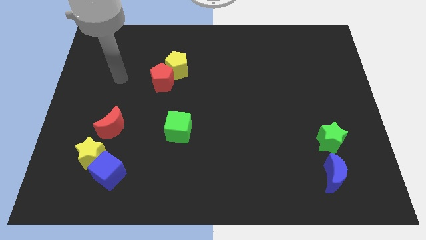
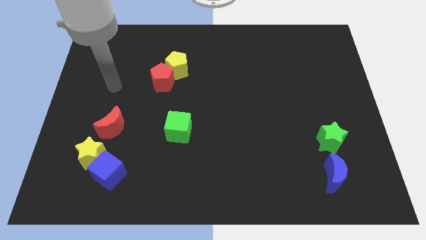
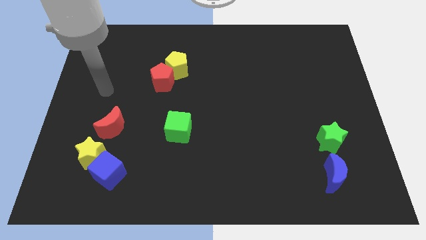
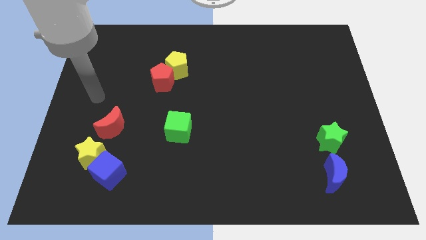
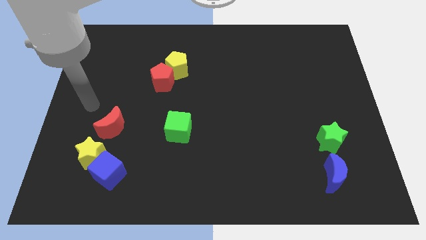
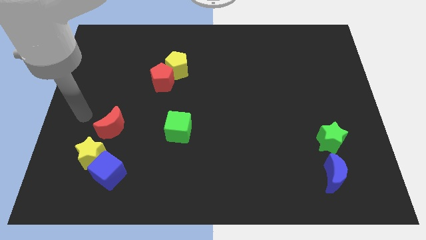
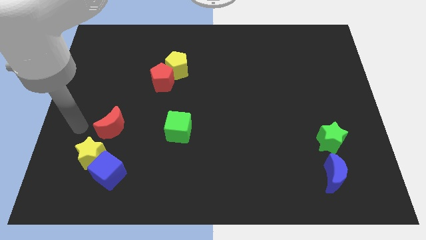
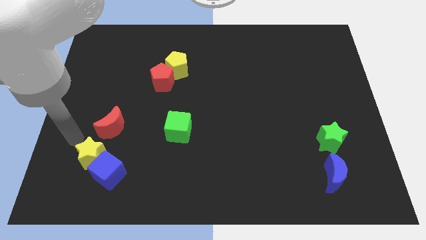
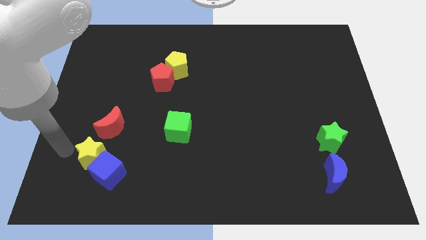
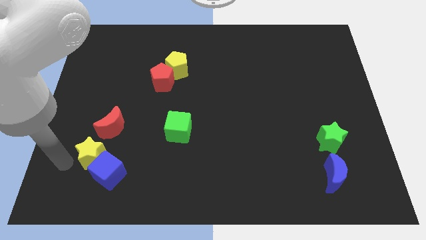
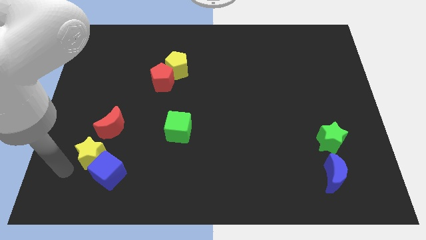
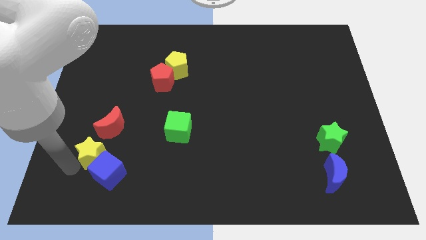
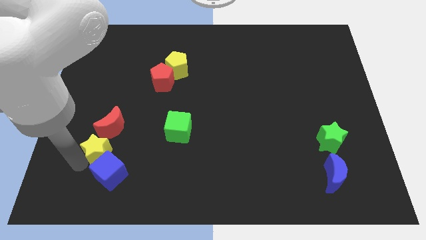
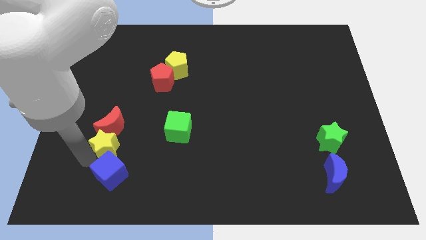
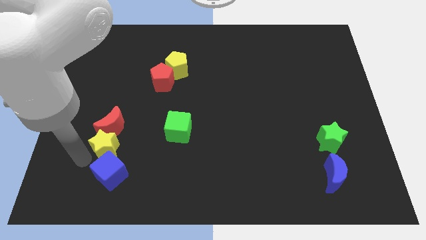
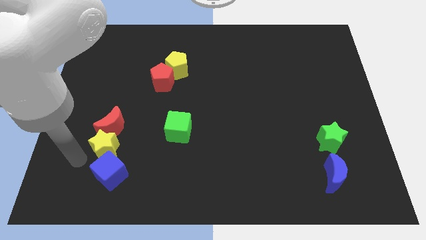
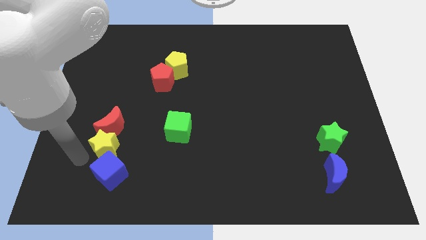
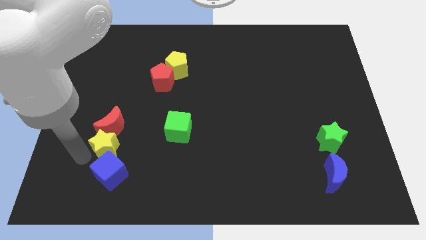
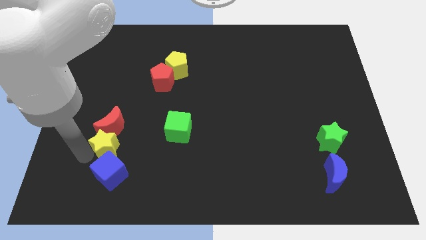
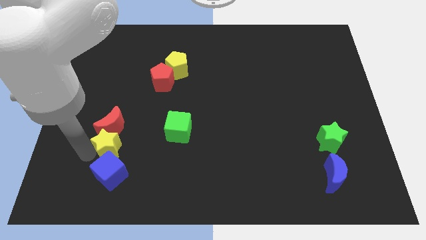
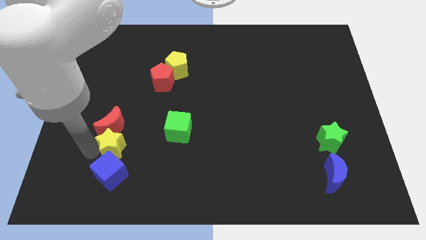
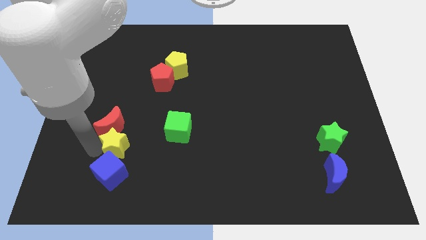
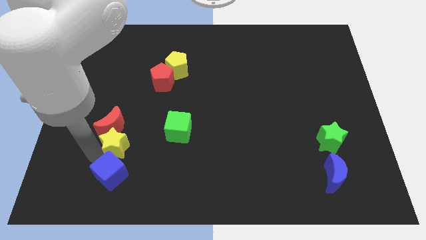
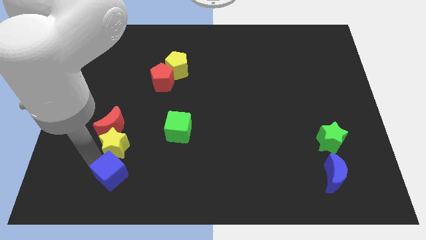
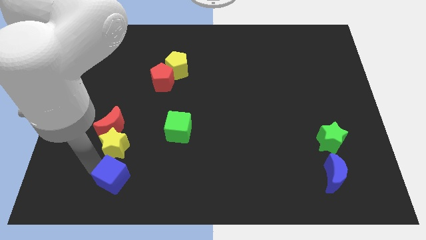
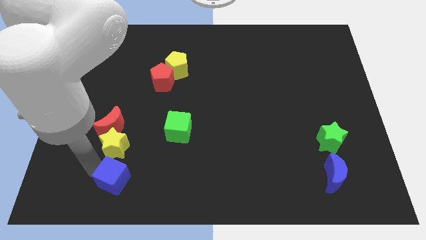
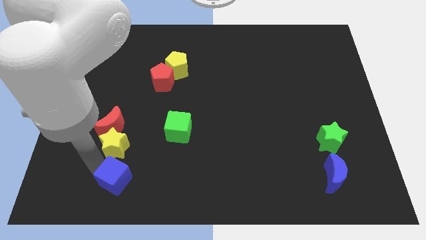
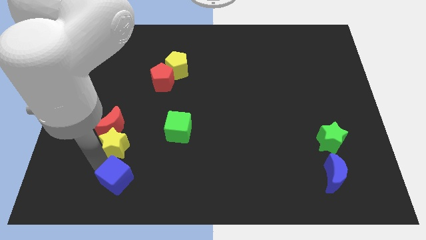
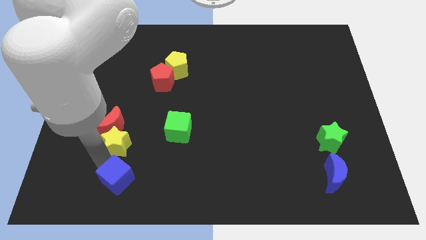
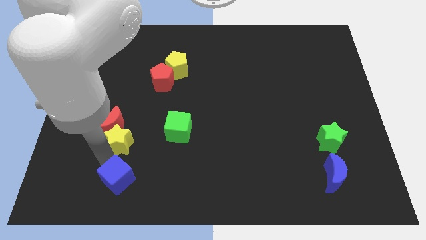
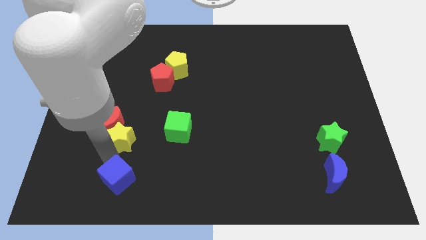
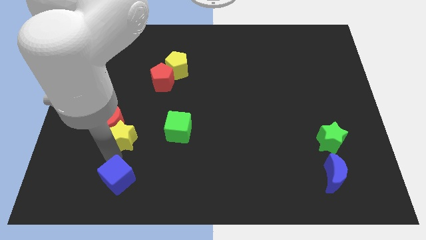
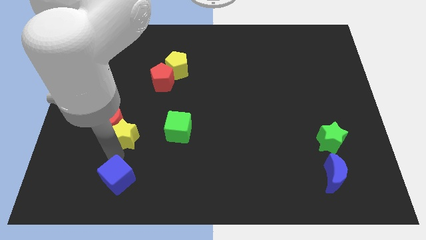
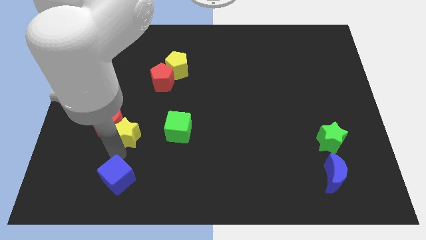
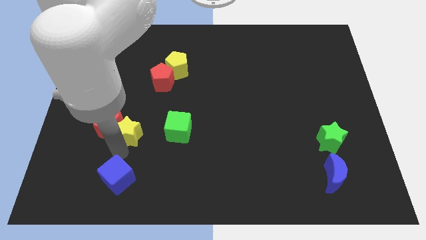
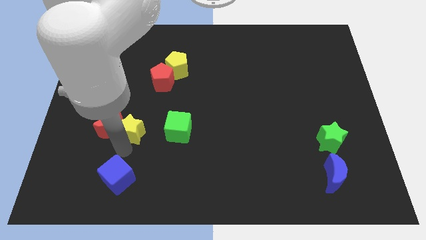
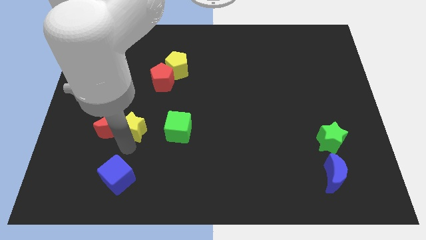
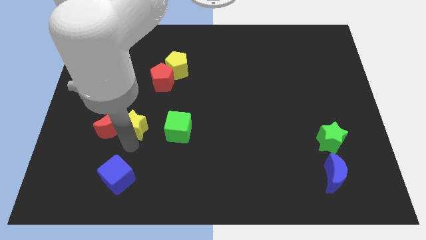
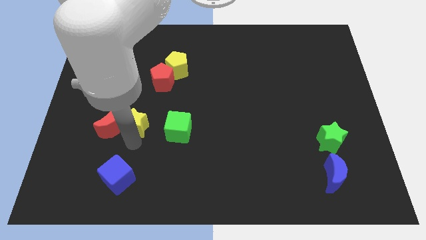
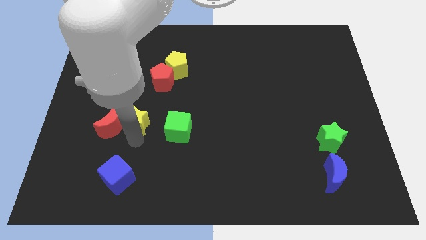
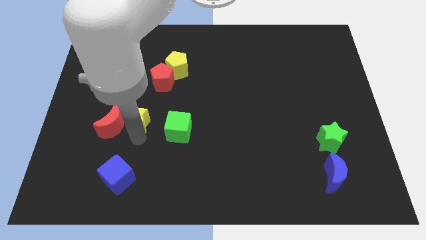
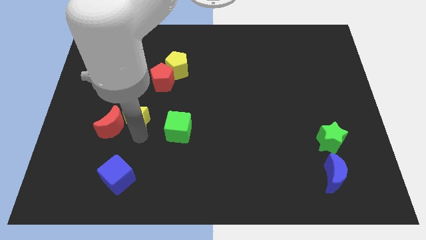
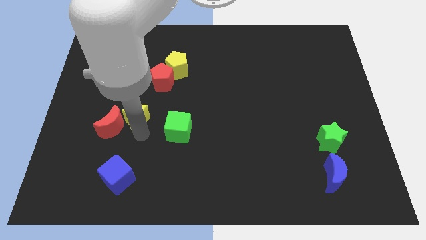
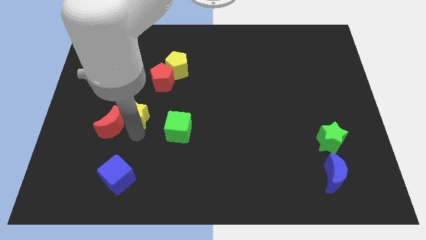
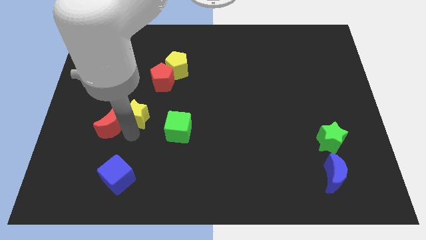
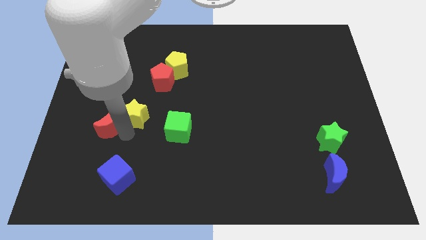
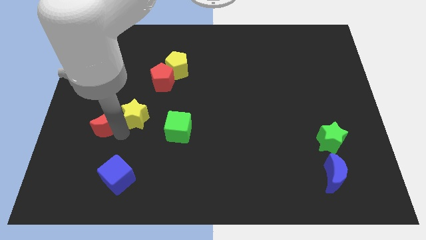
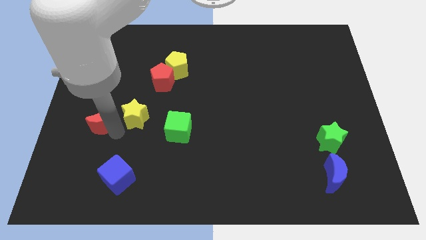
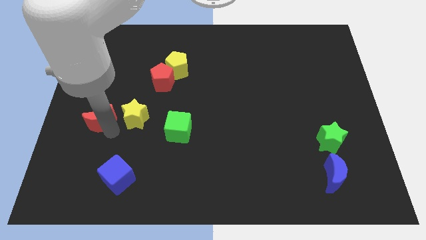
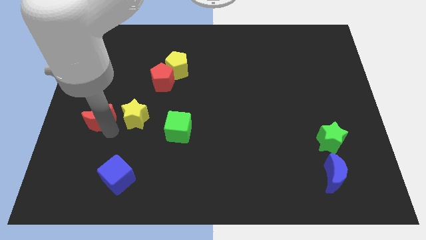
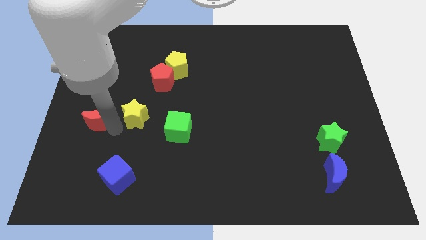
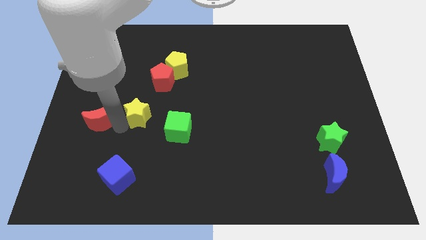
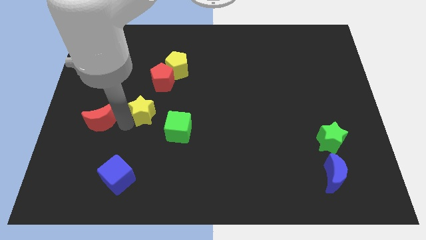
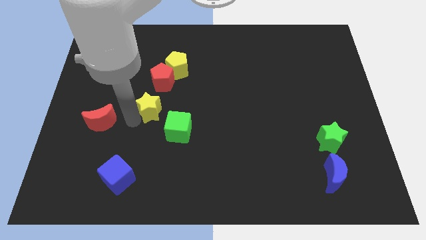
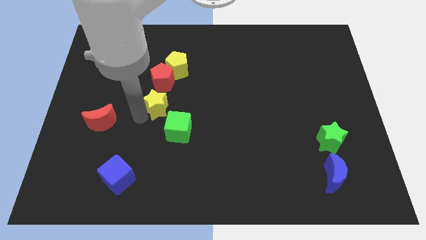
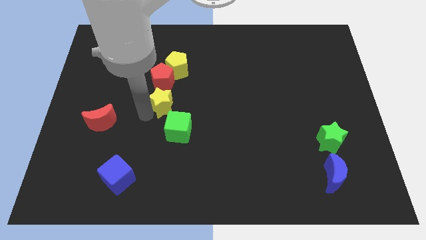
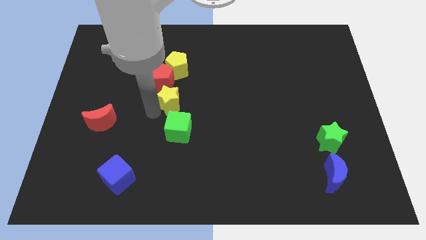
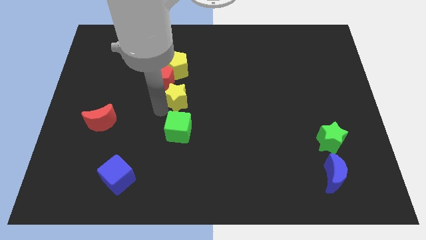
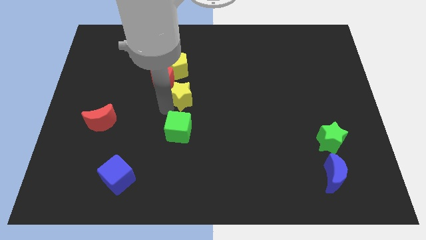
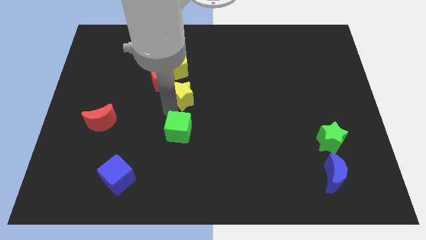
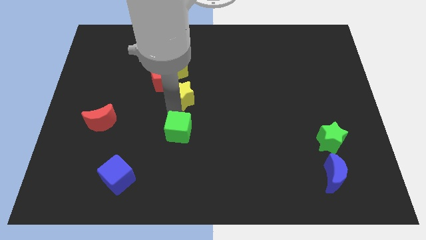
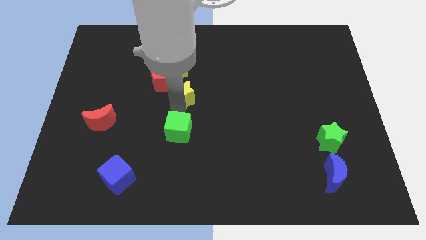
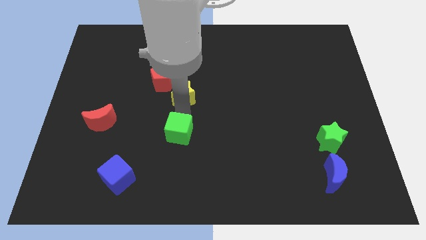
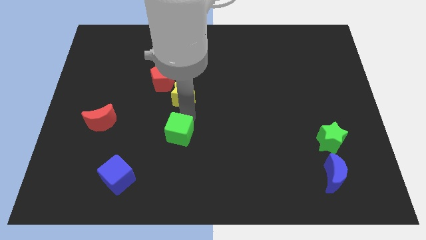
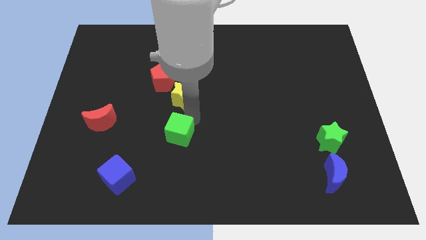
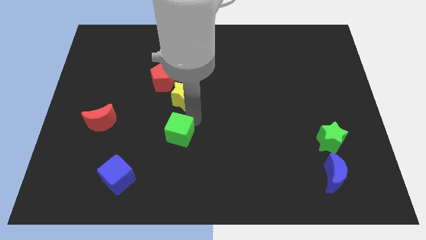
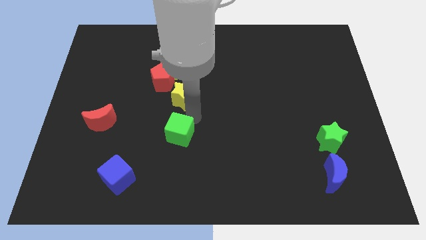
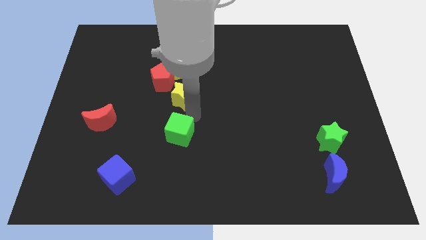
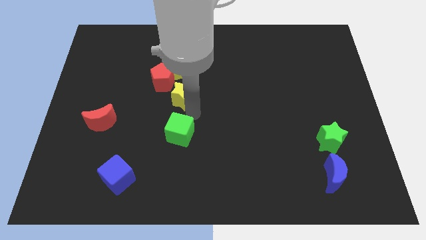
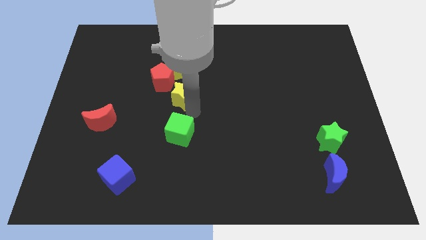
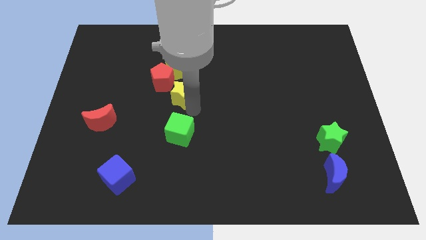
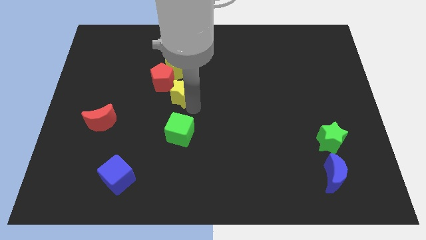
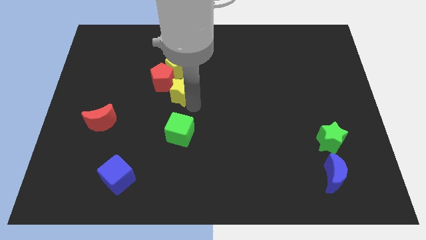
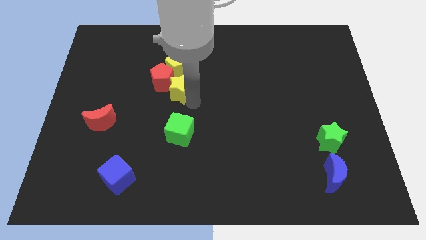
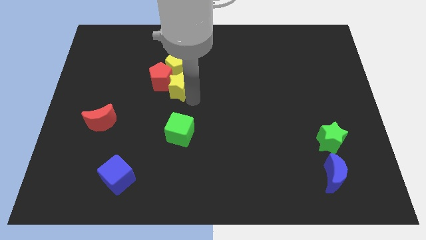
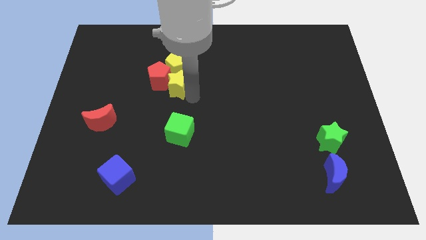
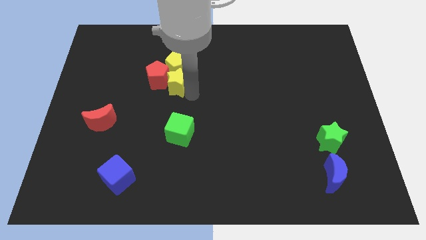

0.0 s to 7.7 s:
slide the yellow star to the yellow pentagon
